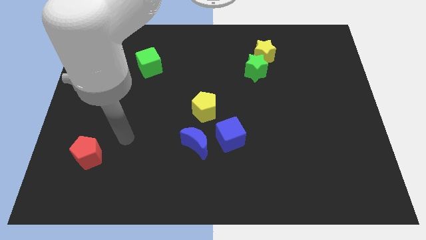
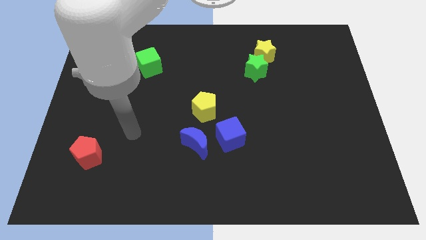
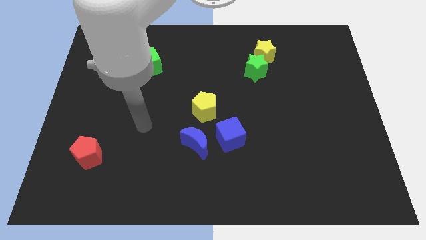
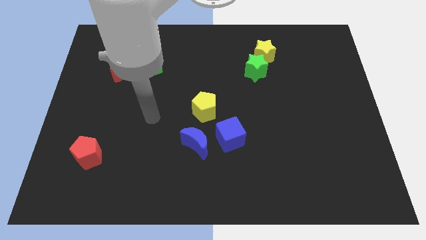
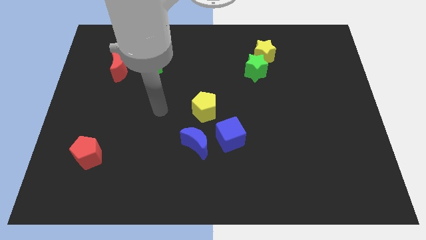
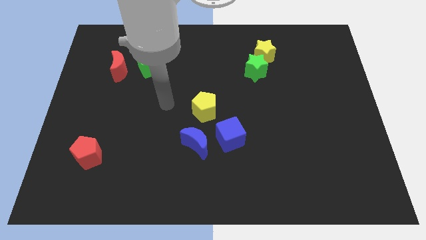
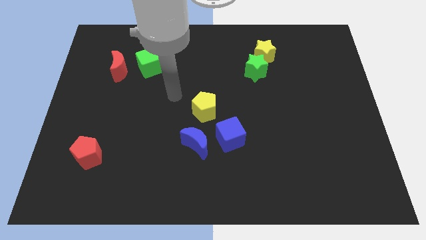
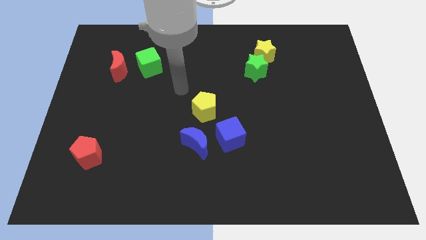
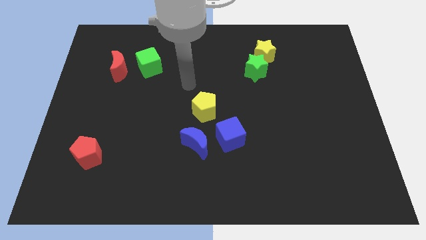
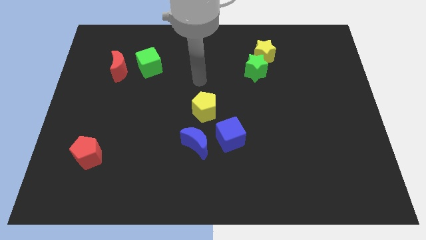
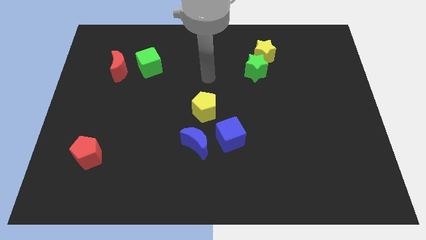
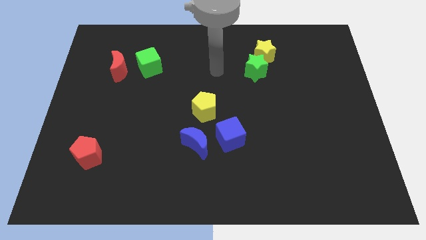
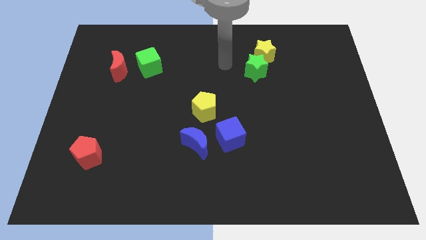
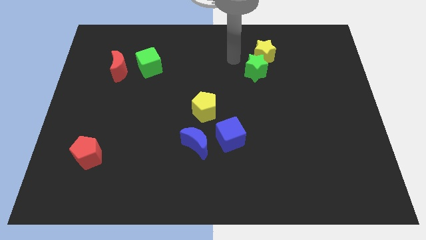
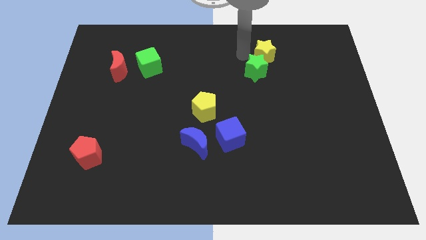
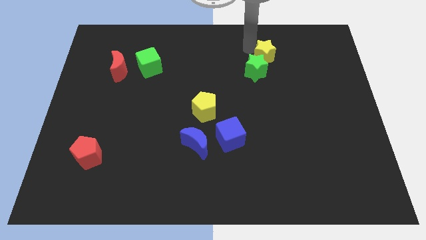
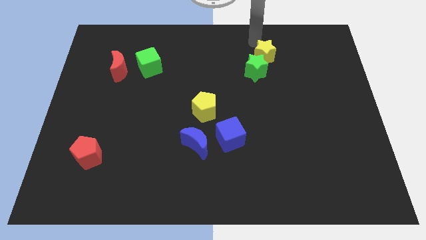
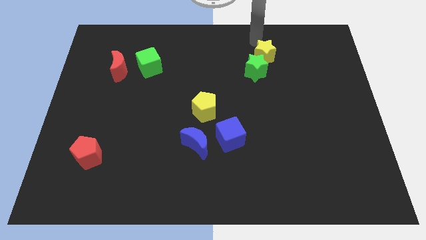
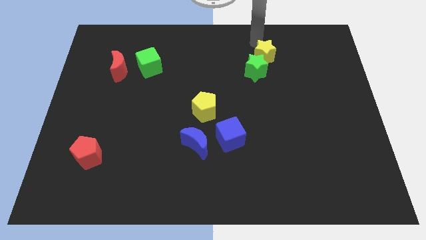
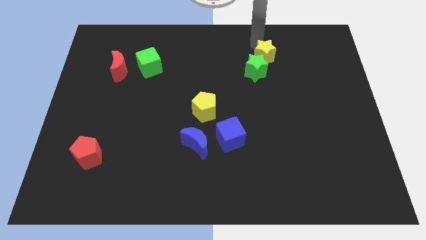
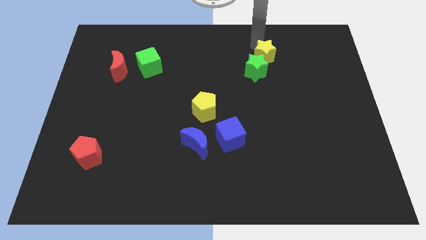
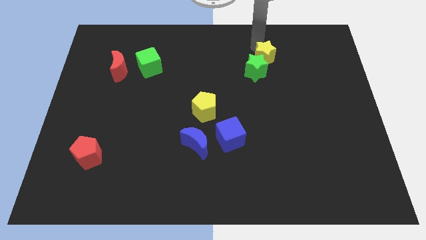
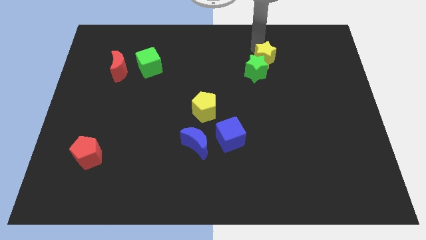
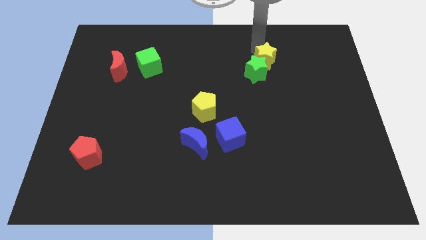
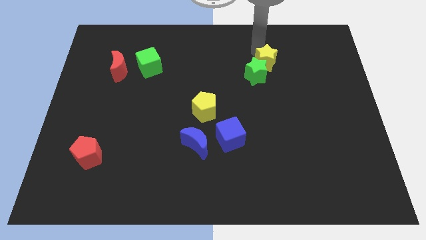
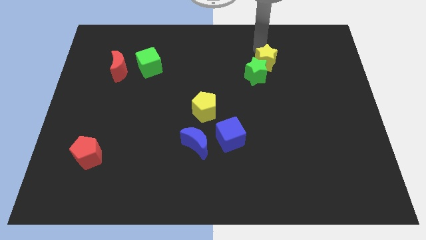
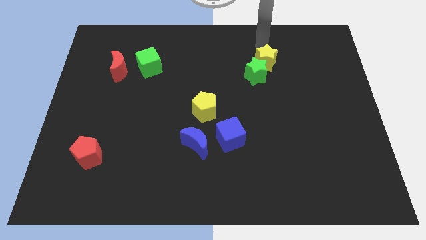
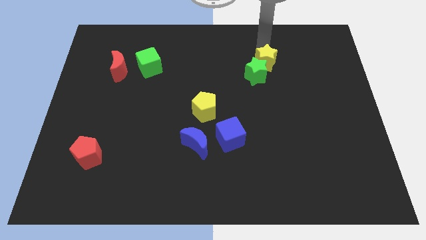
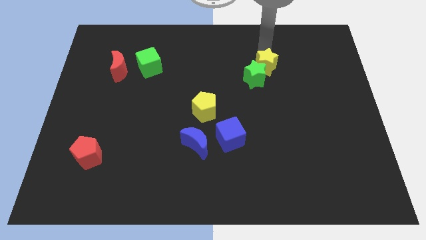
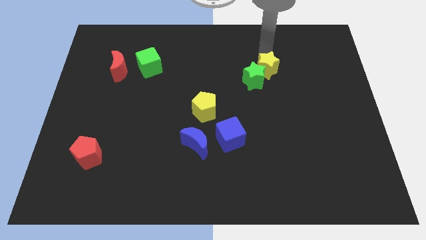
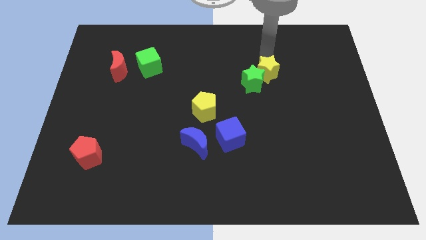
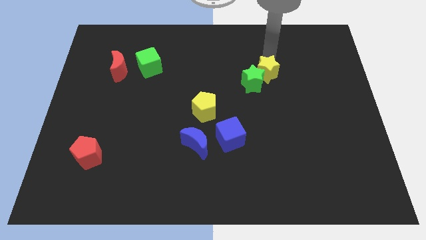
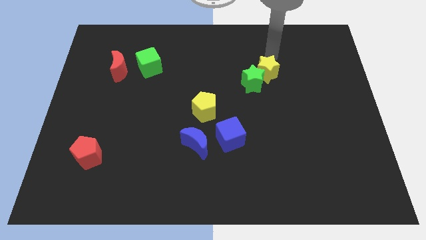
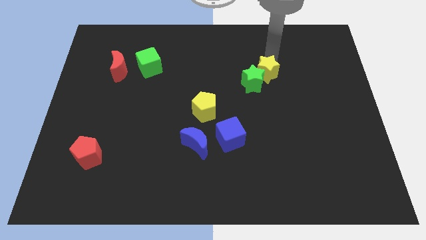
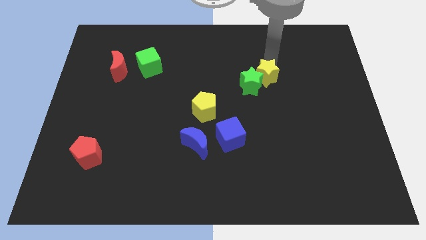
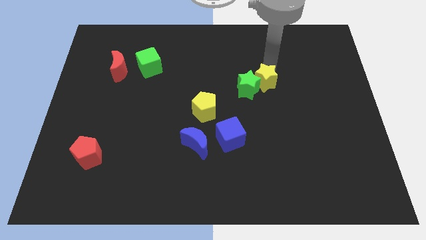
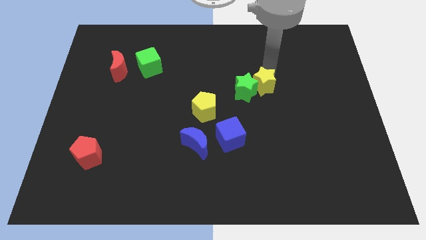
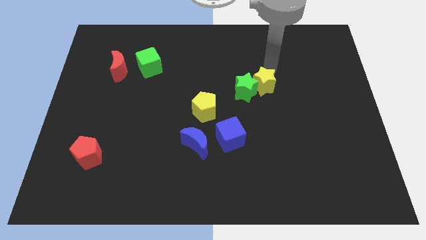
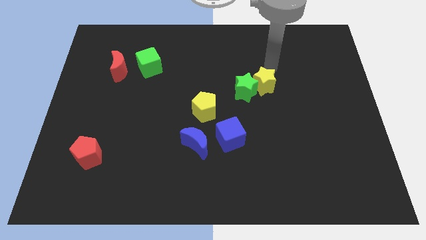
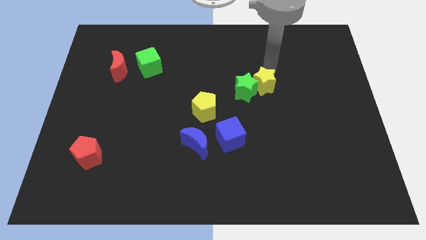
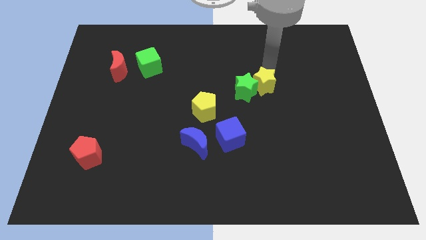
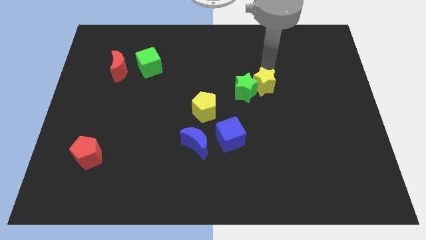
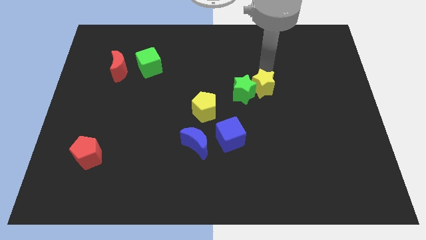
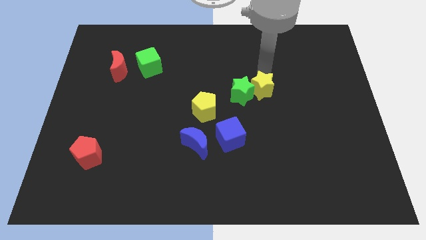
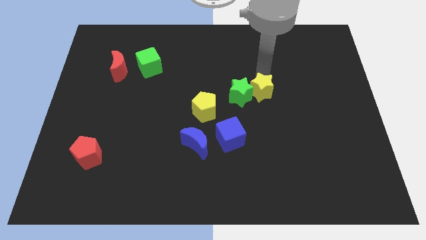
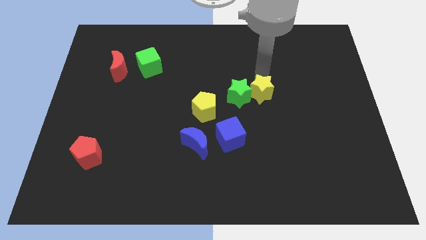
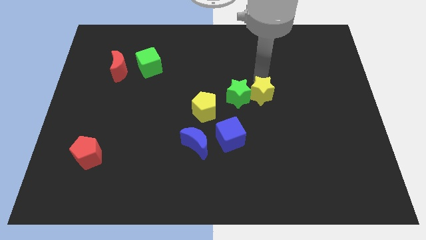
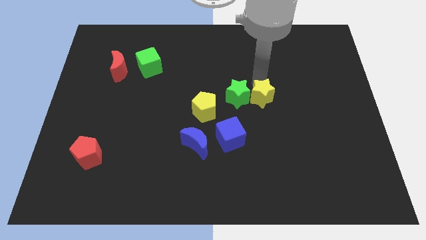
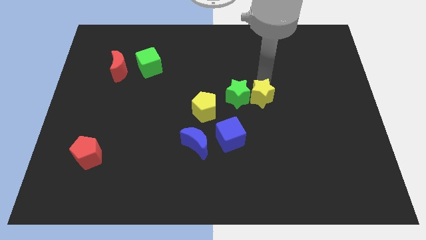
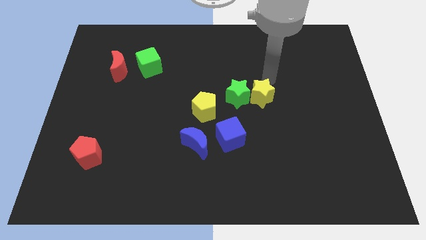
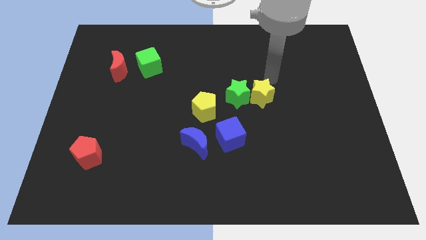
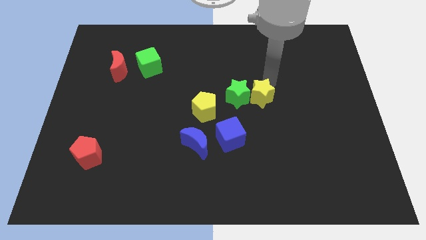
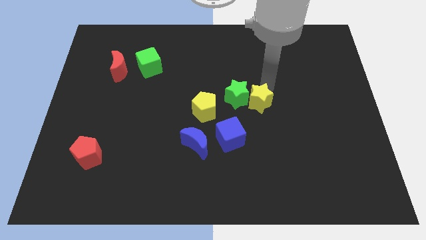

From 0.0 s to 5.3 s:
slide the yellow star diagonally up and to the right of the blue cube

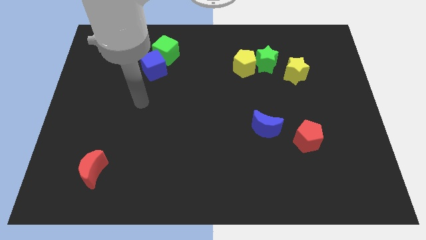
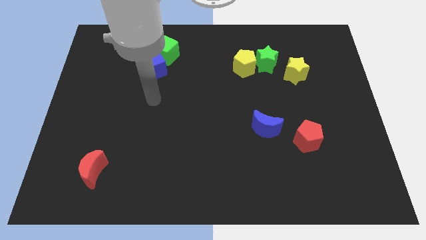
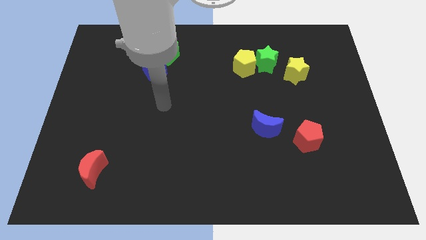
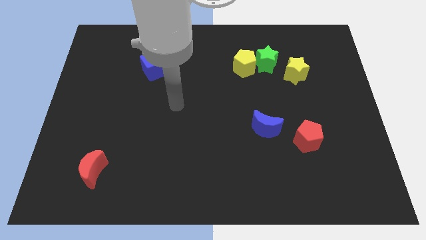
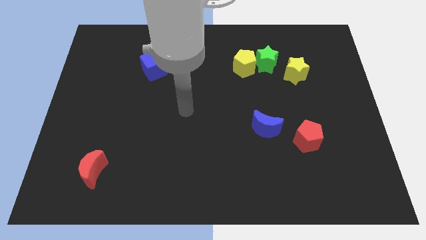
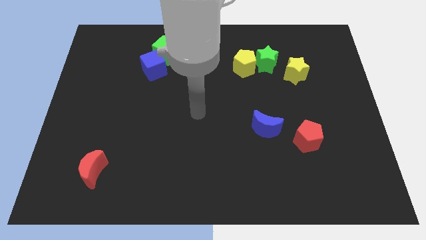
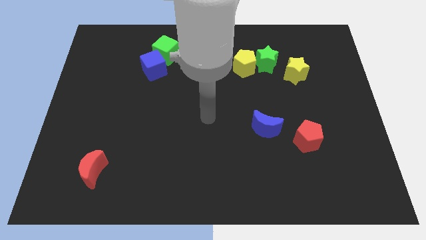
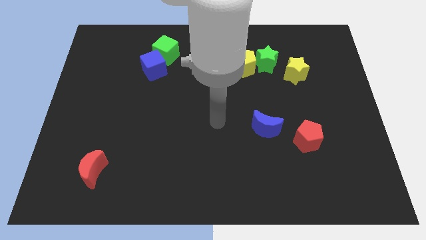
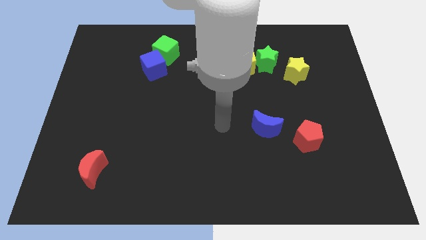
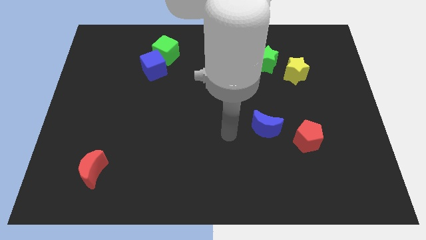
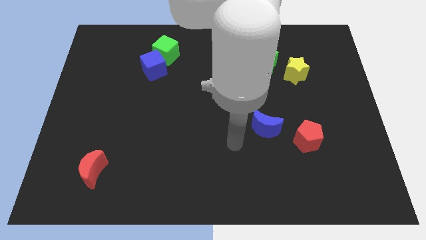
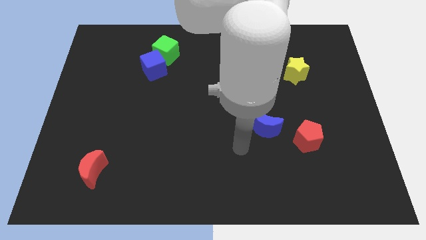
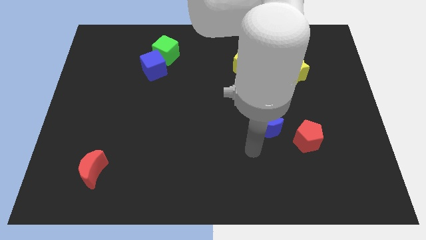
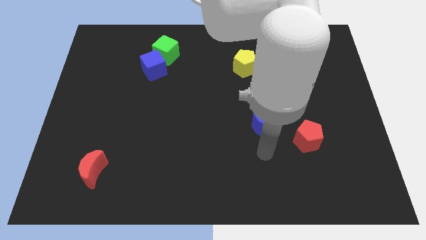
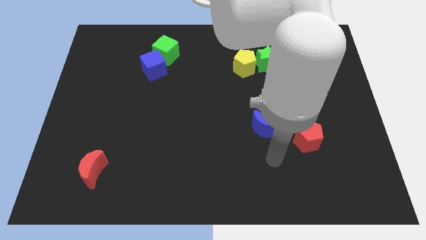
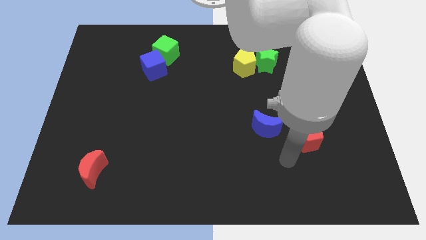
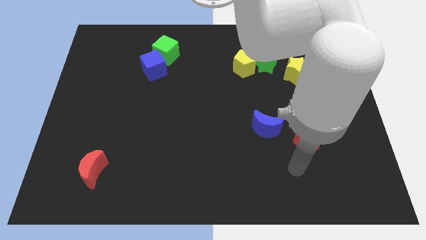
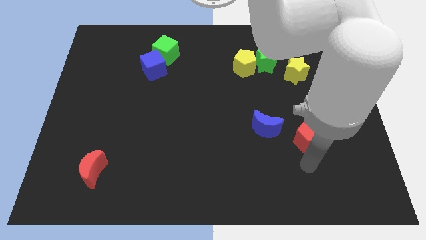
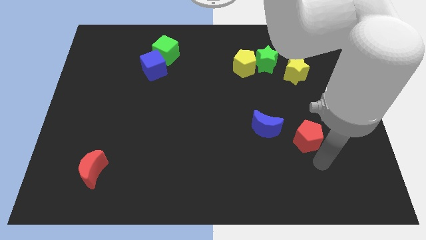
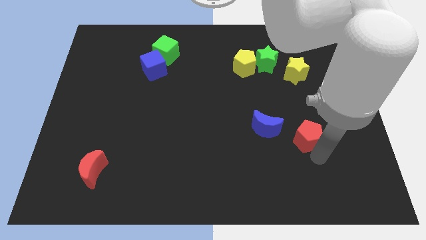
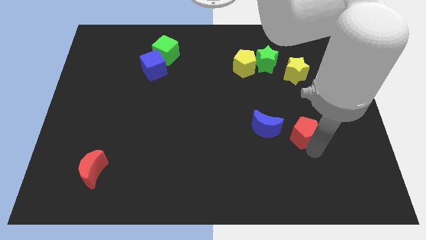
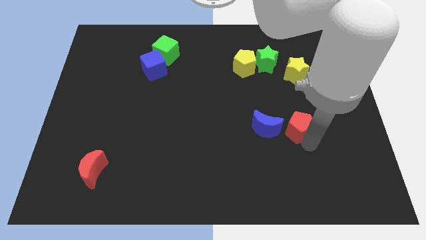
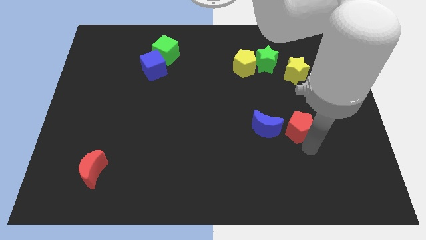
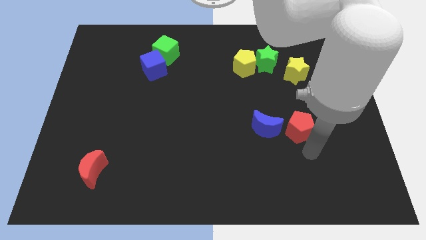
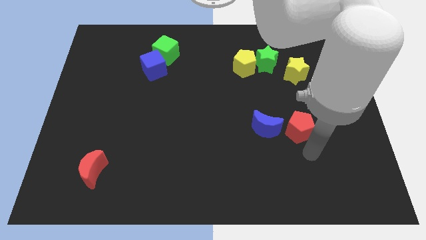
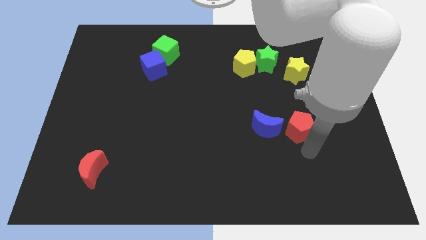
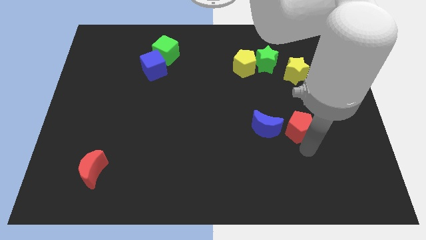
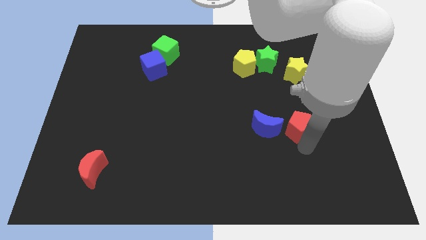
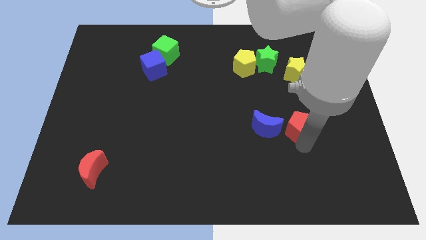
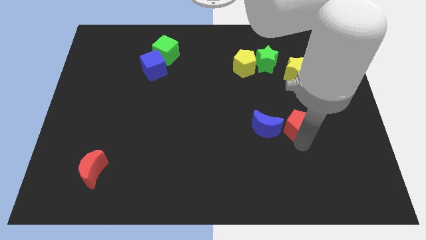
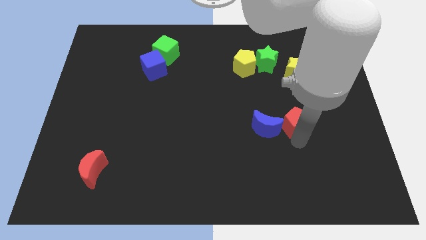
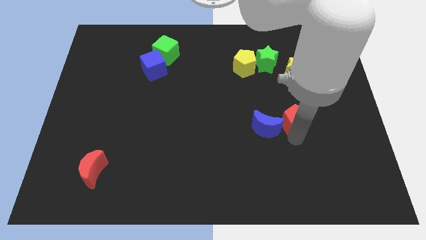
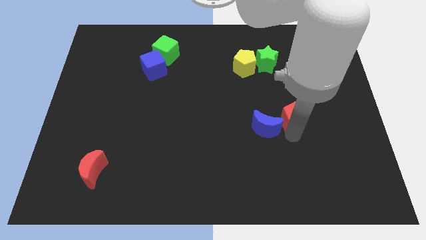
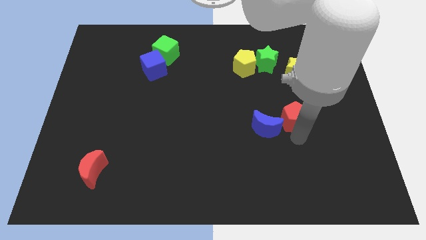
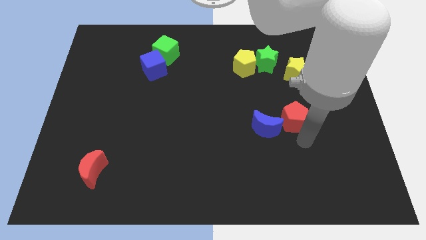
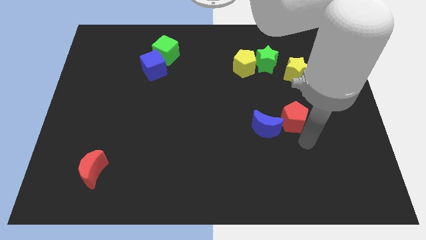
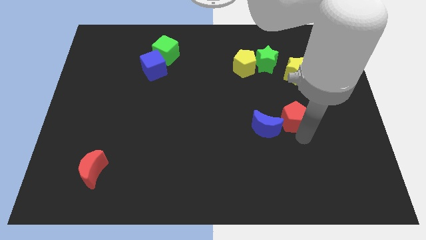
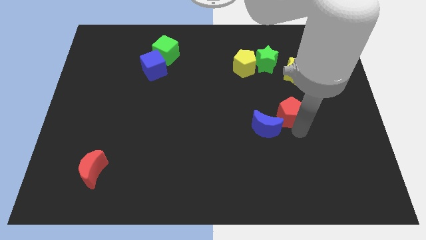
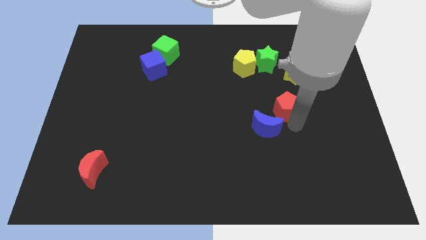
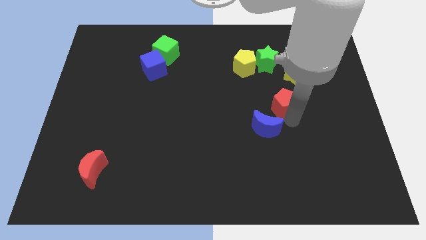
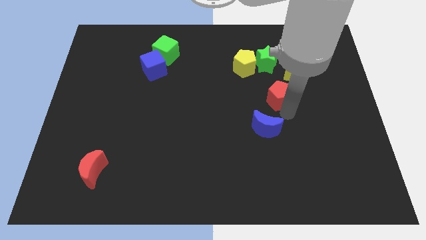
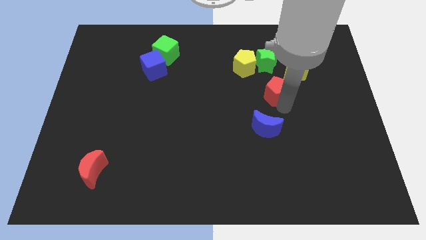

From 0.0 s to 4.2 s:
slide the red pentagon to the bottom right of the yellow pentagon
